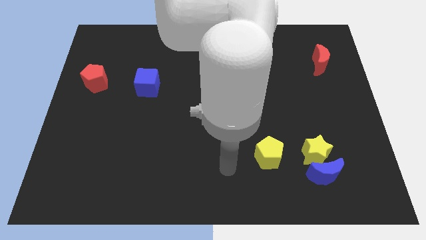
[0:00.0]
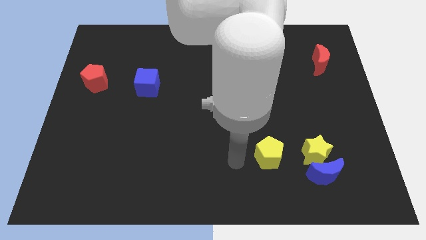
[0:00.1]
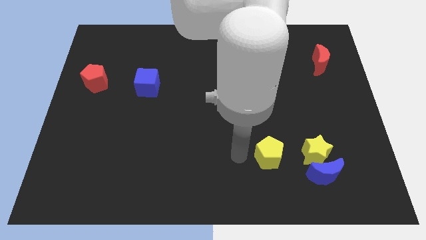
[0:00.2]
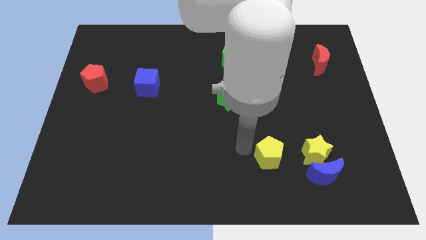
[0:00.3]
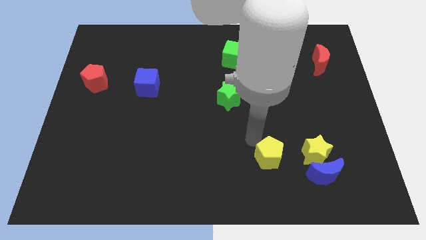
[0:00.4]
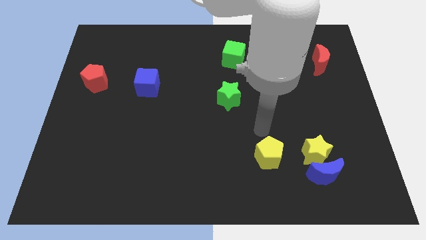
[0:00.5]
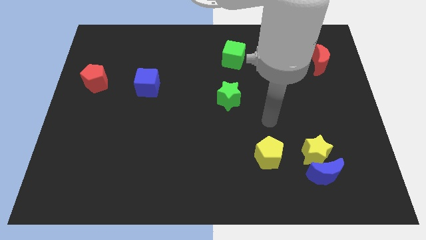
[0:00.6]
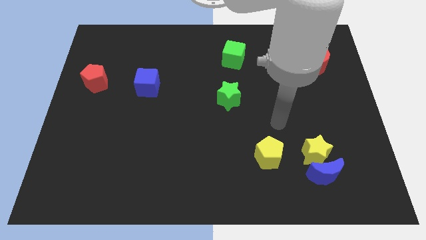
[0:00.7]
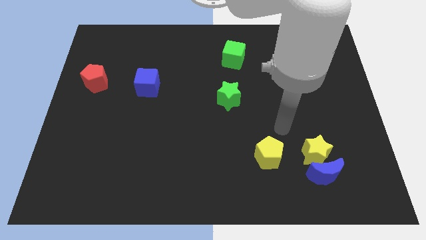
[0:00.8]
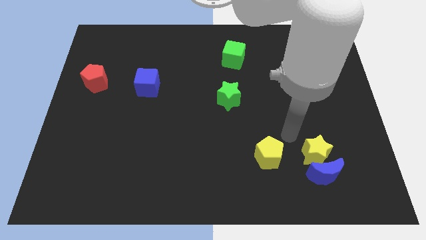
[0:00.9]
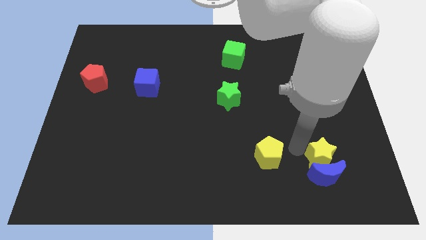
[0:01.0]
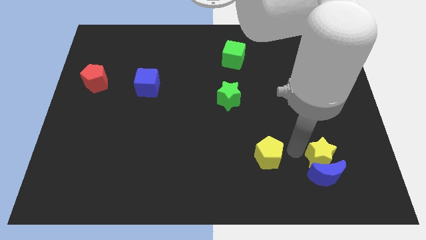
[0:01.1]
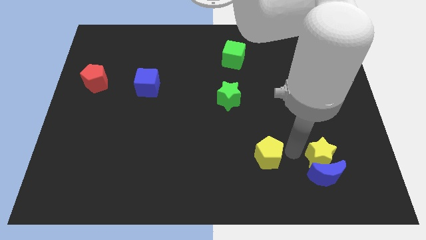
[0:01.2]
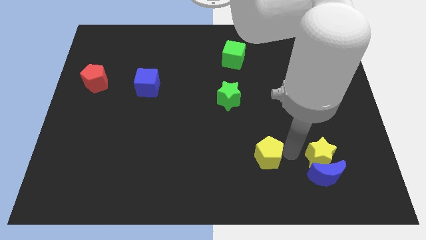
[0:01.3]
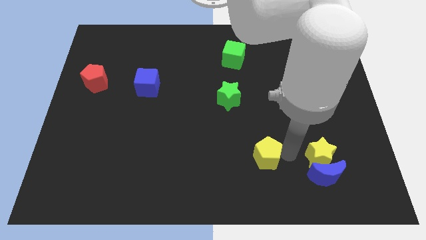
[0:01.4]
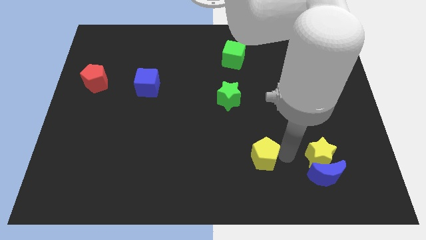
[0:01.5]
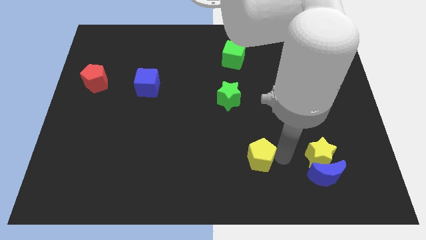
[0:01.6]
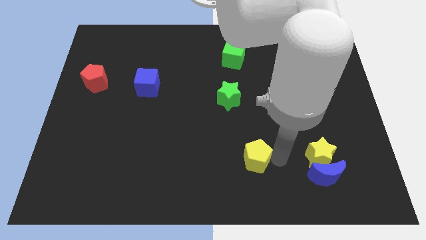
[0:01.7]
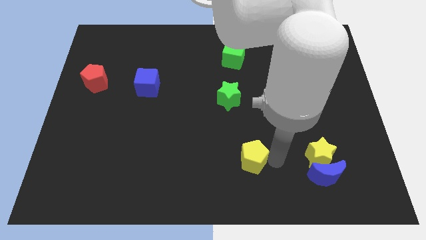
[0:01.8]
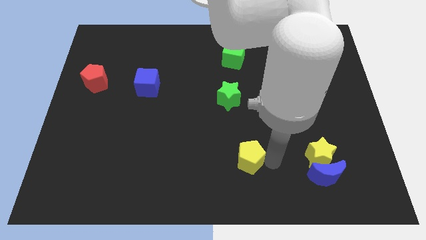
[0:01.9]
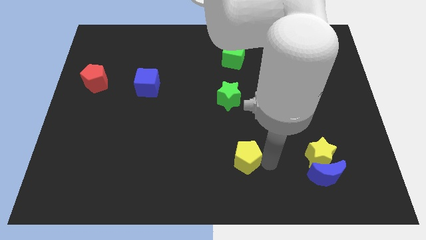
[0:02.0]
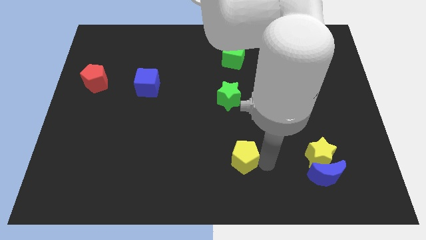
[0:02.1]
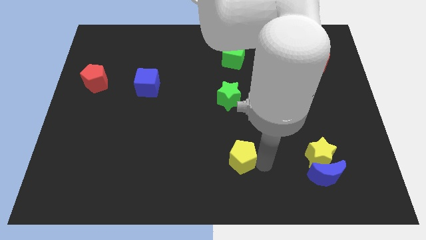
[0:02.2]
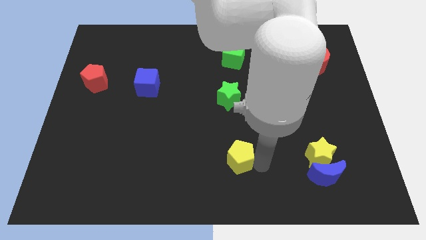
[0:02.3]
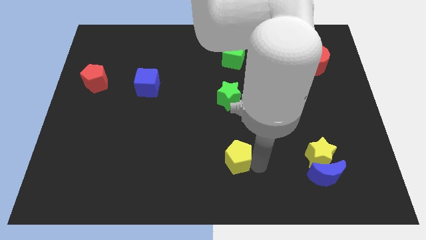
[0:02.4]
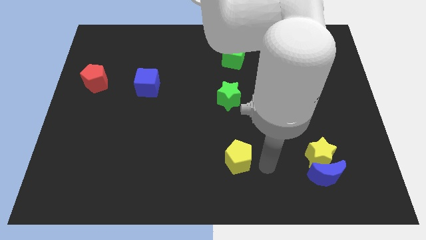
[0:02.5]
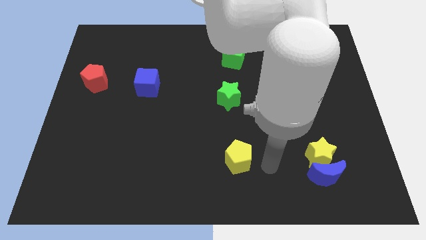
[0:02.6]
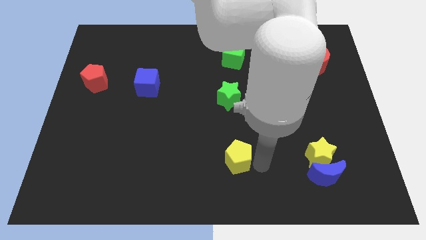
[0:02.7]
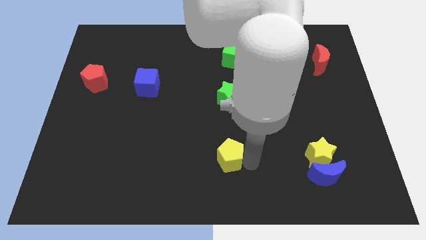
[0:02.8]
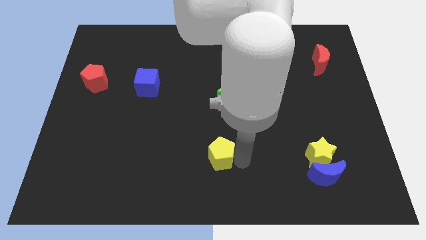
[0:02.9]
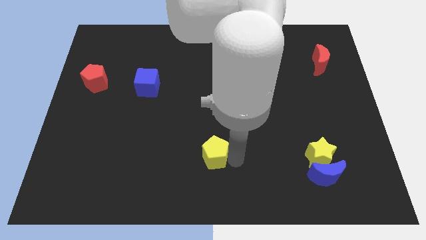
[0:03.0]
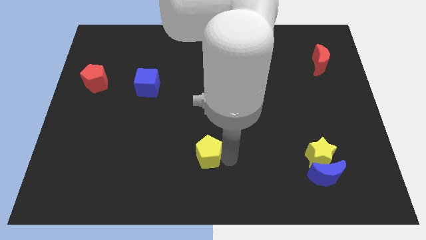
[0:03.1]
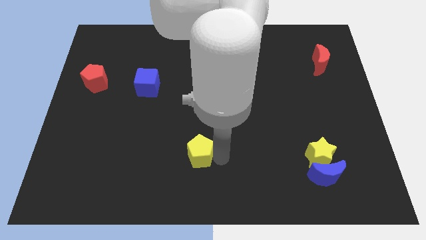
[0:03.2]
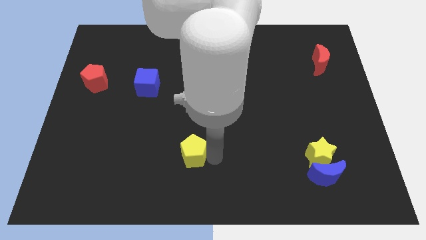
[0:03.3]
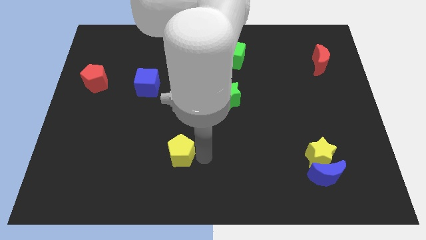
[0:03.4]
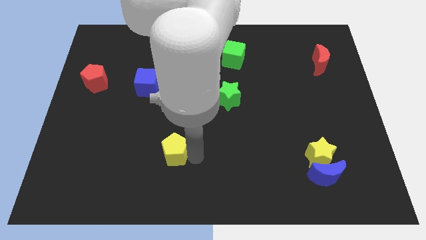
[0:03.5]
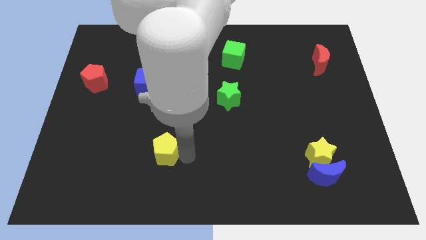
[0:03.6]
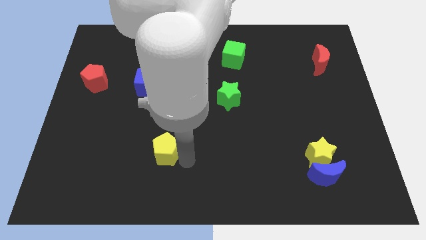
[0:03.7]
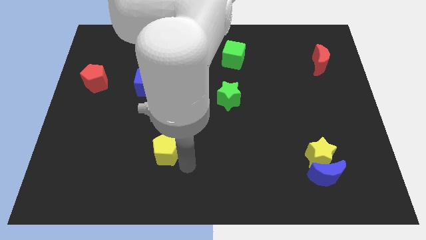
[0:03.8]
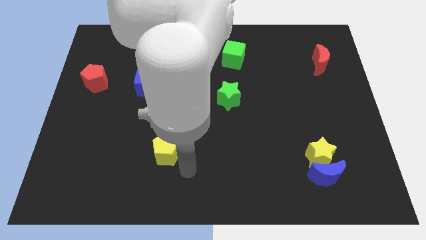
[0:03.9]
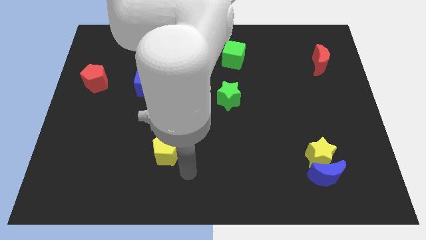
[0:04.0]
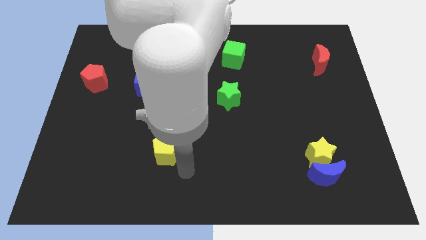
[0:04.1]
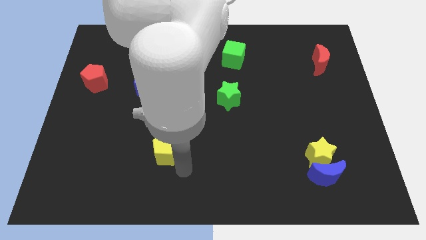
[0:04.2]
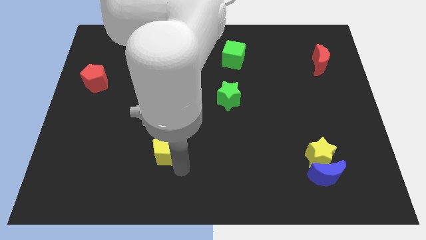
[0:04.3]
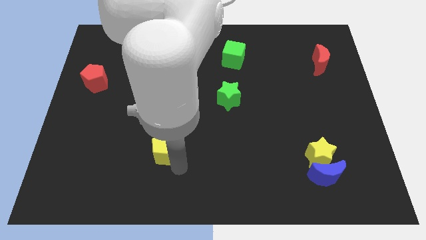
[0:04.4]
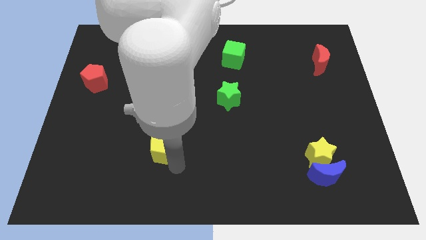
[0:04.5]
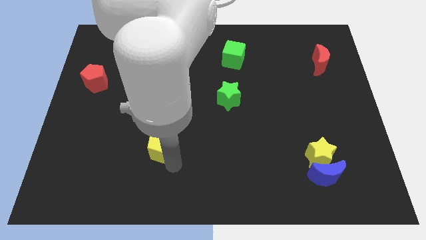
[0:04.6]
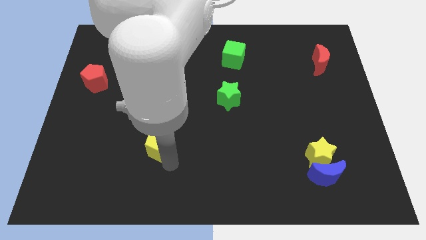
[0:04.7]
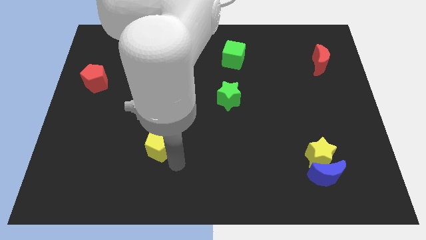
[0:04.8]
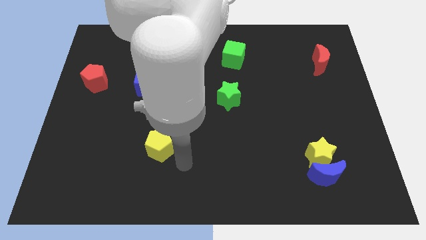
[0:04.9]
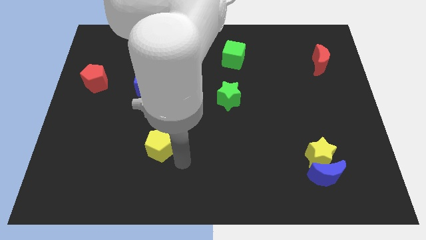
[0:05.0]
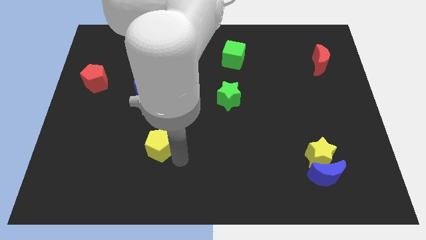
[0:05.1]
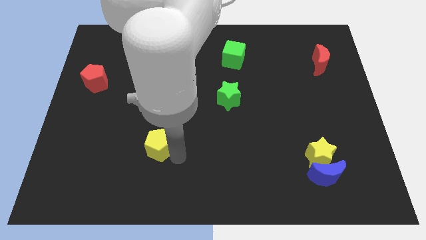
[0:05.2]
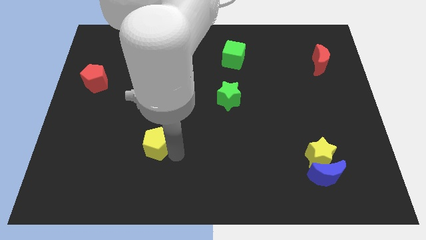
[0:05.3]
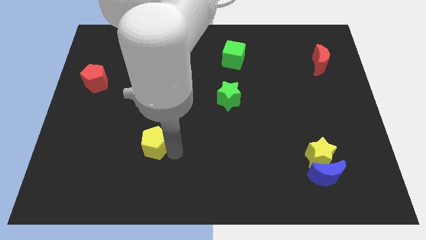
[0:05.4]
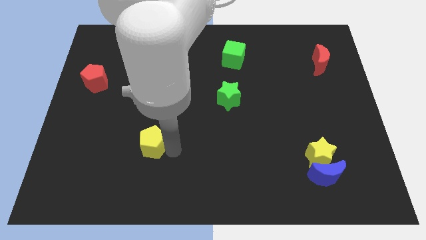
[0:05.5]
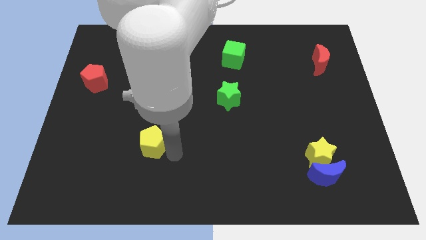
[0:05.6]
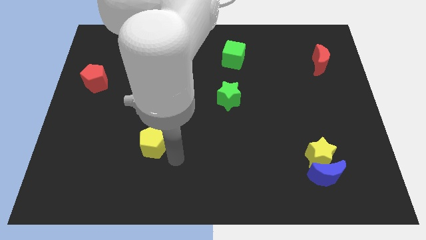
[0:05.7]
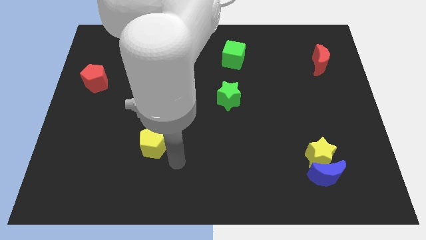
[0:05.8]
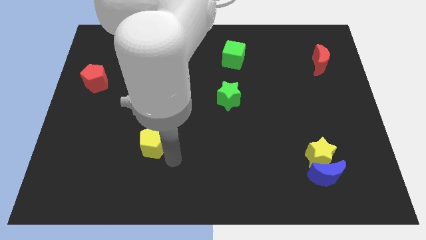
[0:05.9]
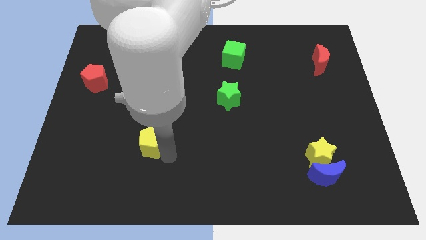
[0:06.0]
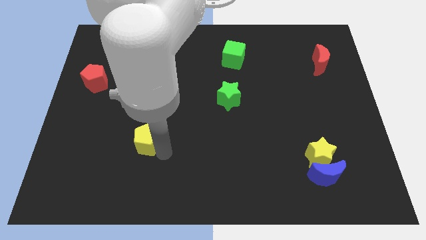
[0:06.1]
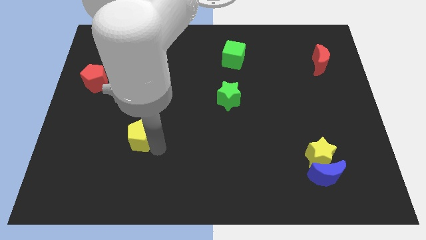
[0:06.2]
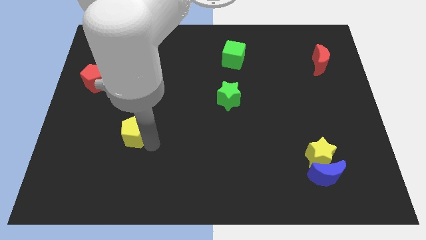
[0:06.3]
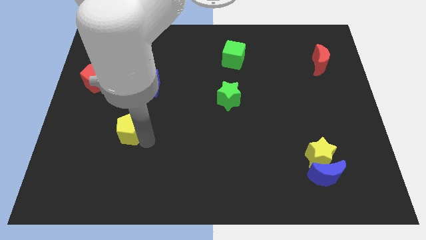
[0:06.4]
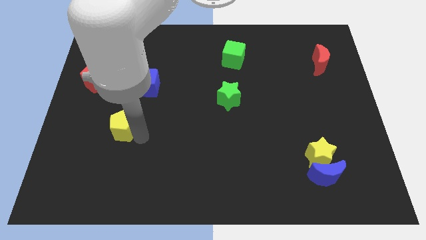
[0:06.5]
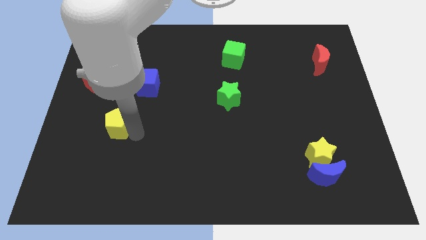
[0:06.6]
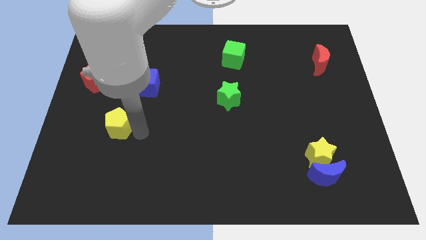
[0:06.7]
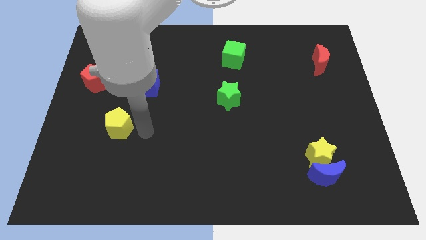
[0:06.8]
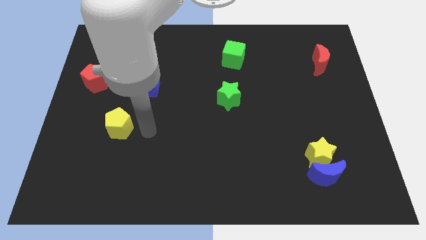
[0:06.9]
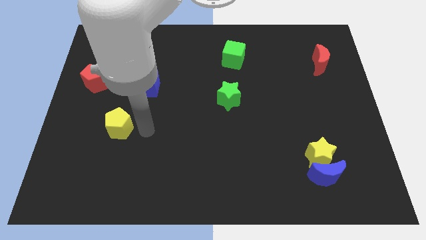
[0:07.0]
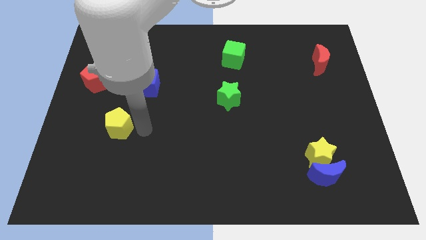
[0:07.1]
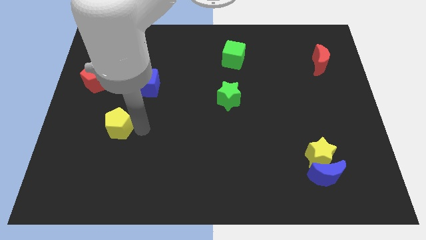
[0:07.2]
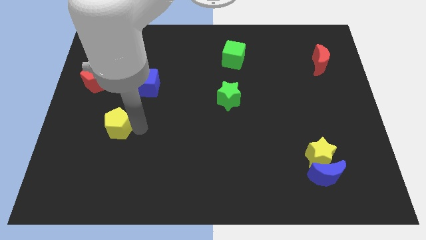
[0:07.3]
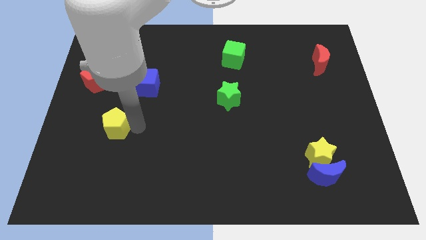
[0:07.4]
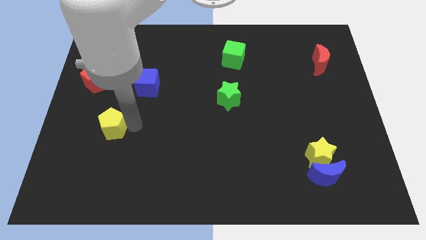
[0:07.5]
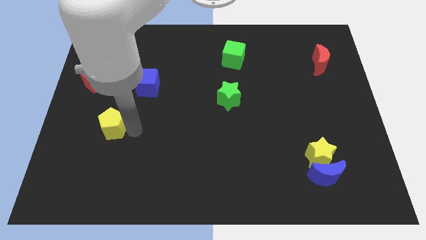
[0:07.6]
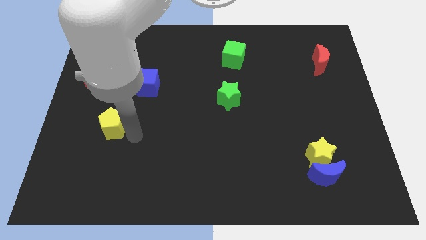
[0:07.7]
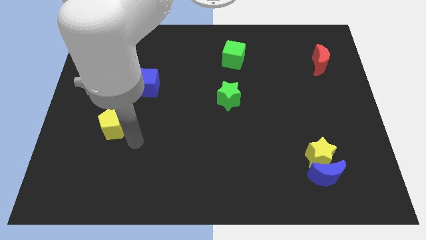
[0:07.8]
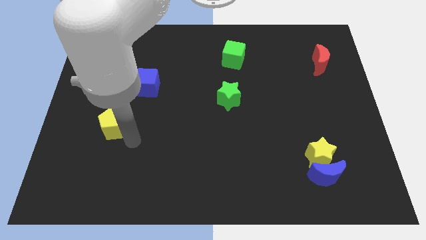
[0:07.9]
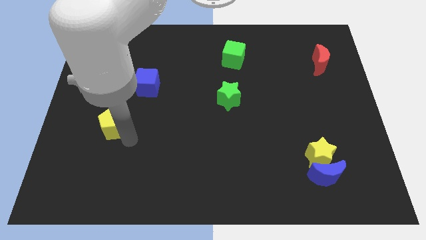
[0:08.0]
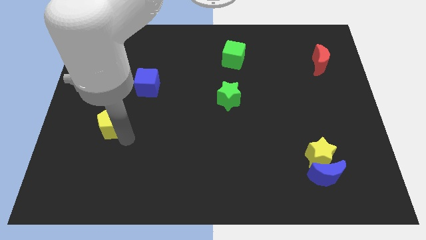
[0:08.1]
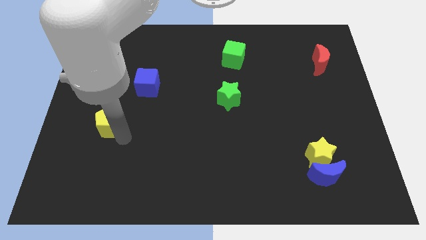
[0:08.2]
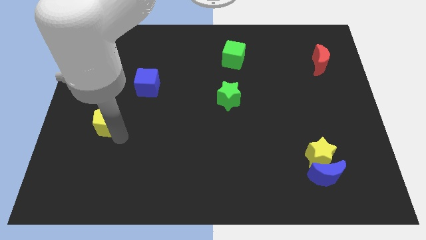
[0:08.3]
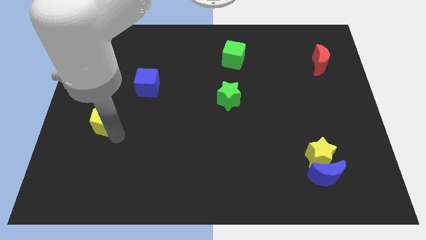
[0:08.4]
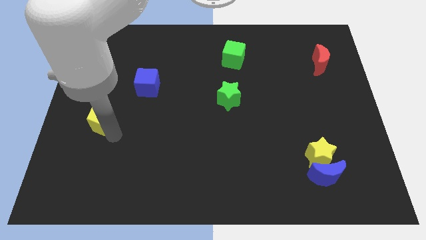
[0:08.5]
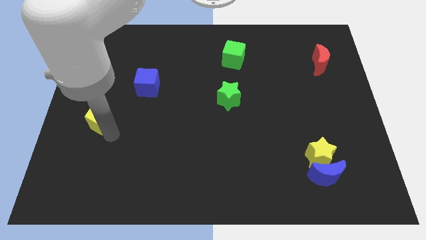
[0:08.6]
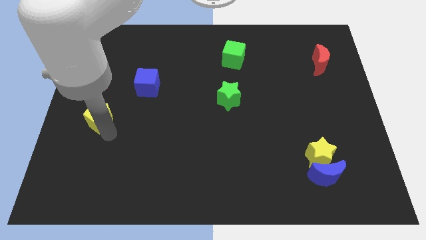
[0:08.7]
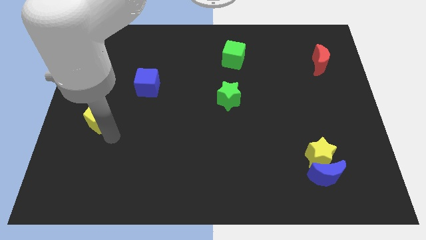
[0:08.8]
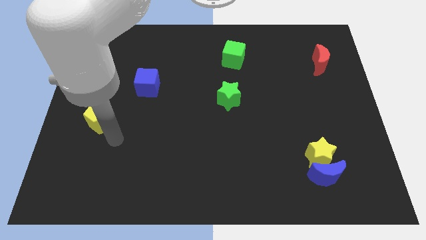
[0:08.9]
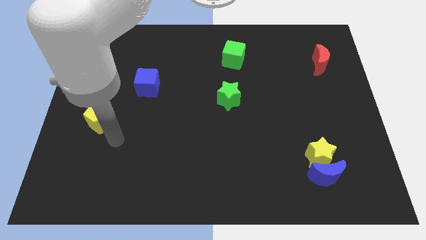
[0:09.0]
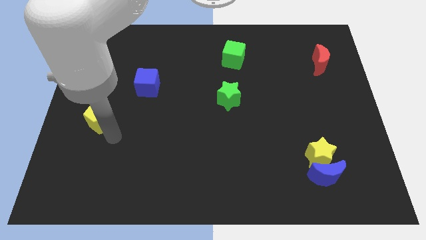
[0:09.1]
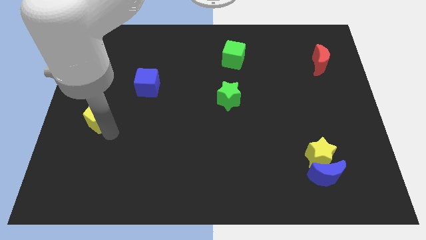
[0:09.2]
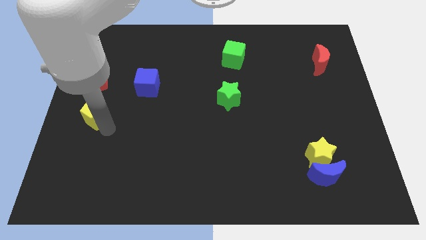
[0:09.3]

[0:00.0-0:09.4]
put the yellow pentagon to the left side
